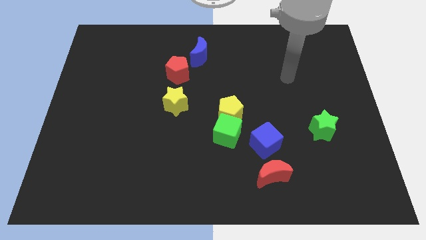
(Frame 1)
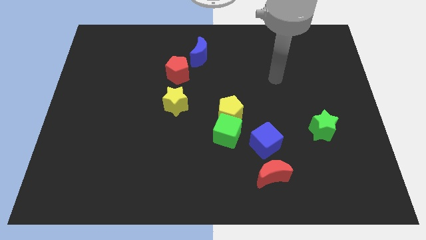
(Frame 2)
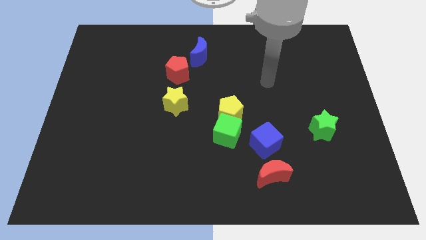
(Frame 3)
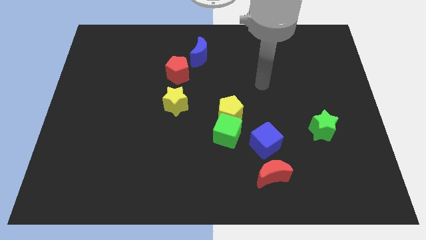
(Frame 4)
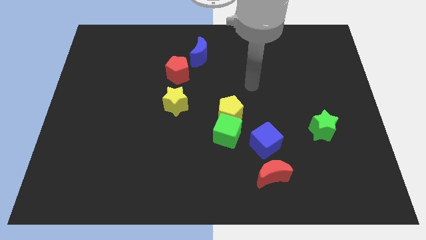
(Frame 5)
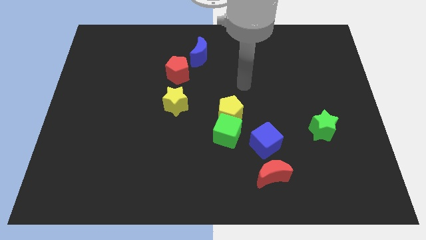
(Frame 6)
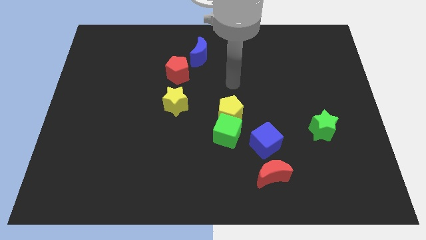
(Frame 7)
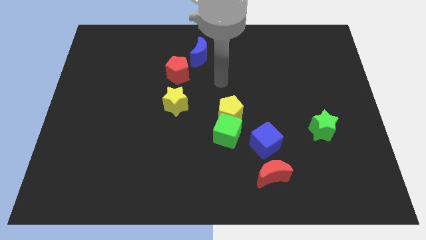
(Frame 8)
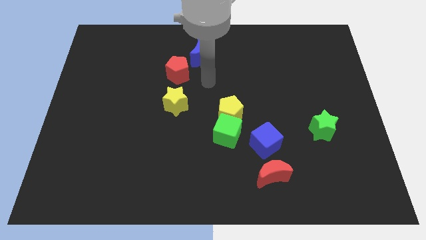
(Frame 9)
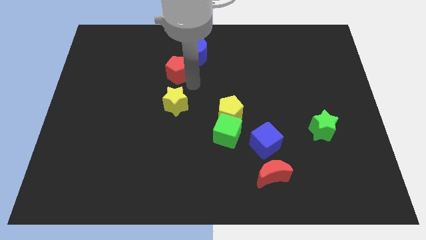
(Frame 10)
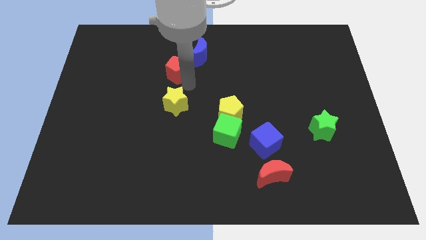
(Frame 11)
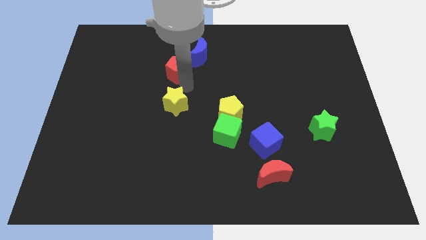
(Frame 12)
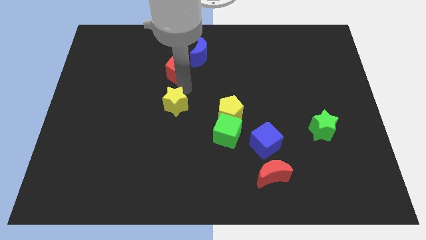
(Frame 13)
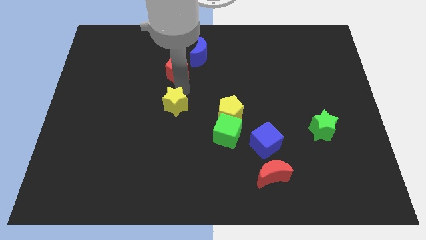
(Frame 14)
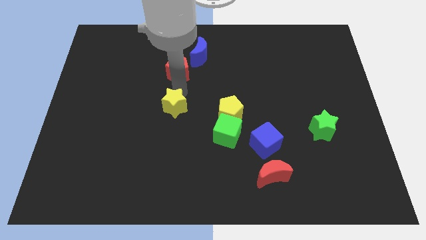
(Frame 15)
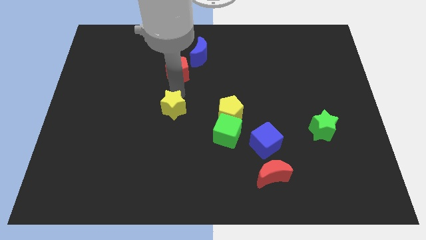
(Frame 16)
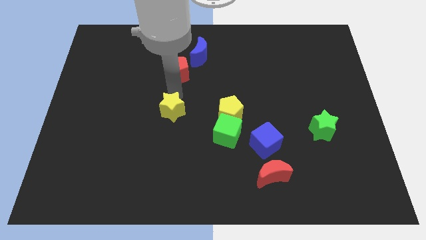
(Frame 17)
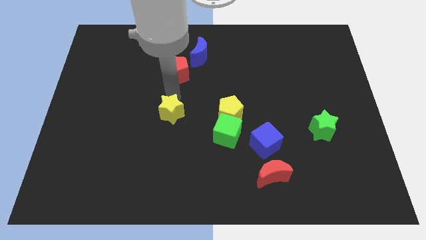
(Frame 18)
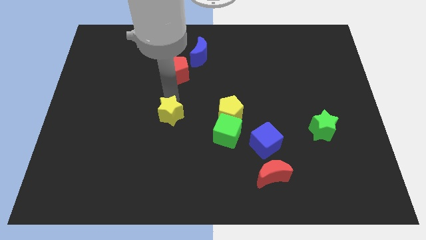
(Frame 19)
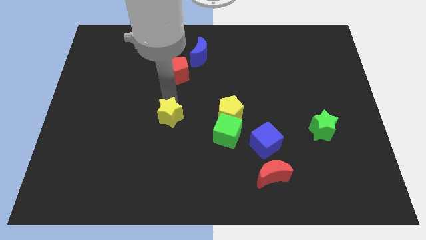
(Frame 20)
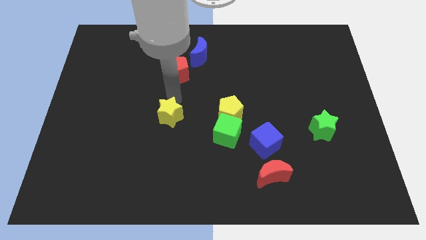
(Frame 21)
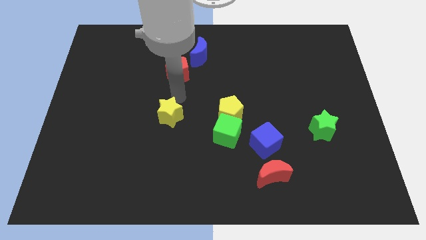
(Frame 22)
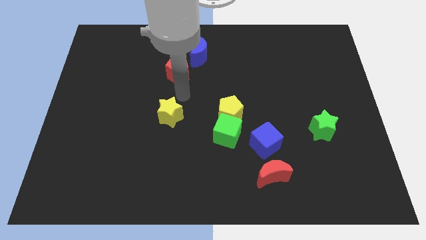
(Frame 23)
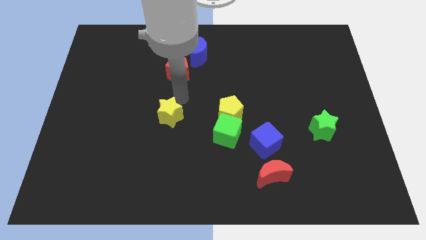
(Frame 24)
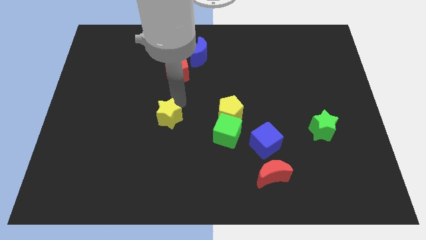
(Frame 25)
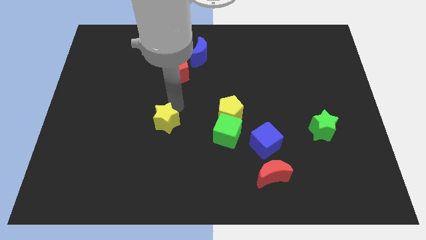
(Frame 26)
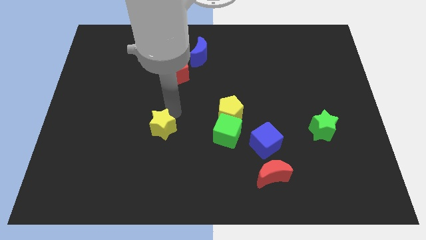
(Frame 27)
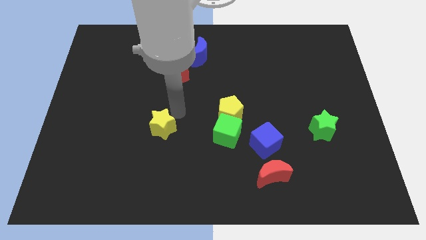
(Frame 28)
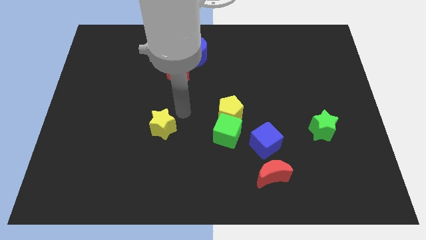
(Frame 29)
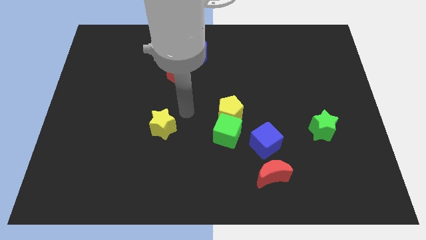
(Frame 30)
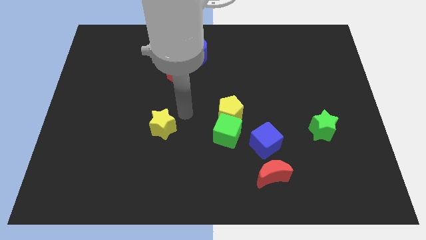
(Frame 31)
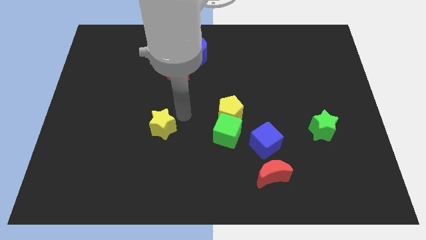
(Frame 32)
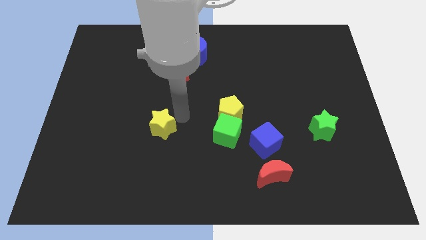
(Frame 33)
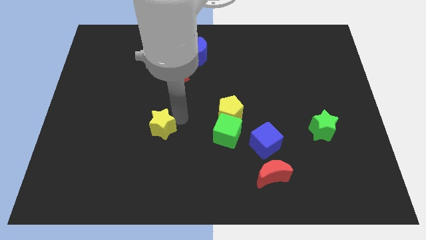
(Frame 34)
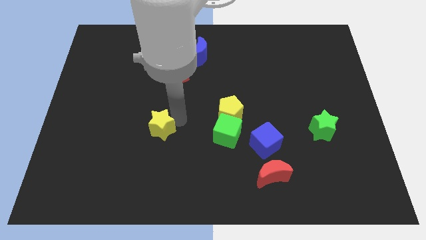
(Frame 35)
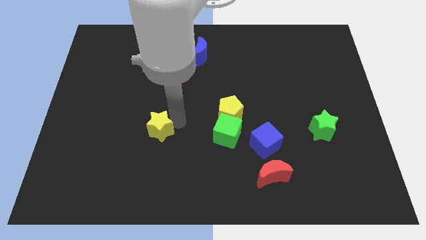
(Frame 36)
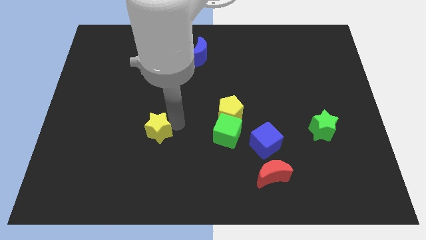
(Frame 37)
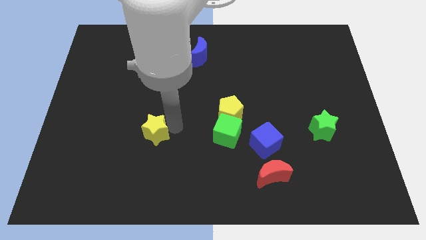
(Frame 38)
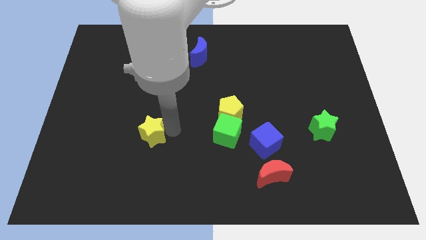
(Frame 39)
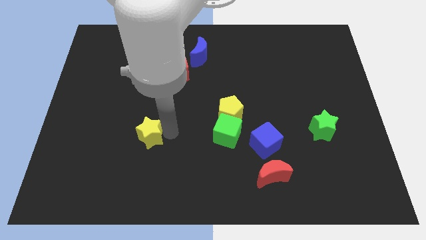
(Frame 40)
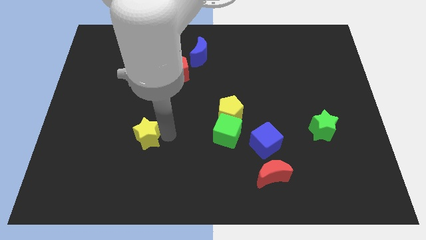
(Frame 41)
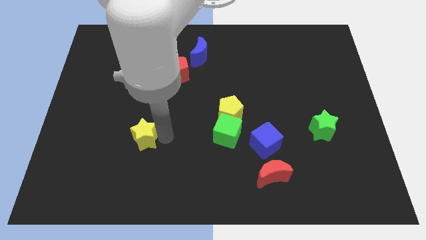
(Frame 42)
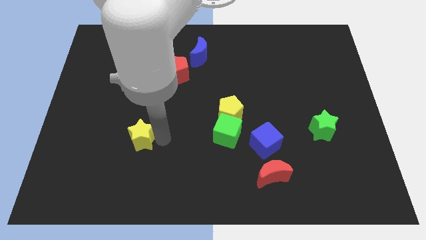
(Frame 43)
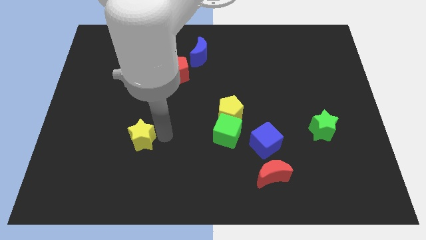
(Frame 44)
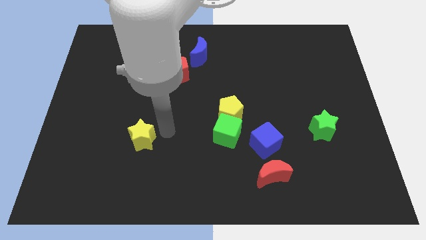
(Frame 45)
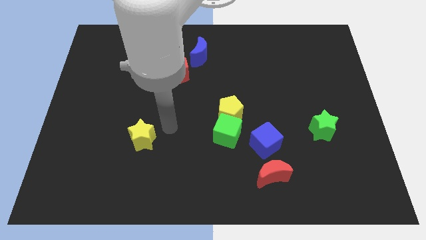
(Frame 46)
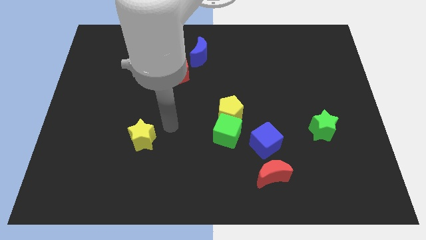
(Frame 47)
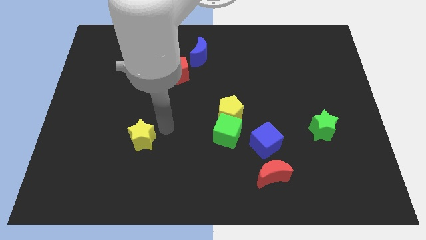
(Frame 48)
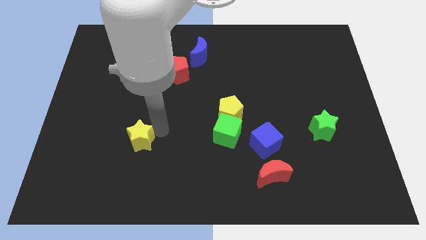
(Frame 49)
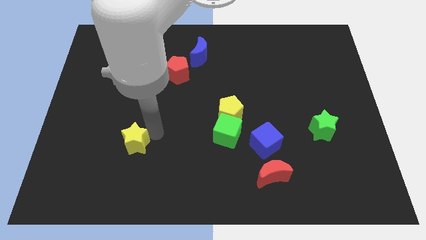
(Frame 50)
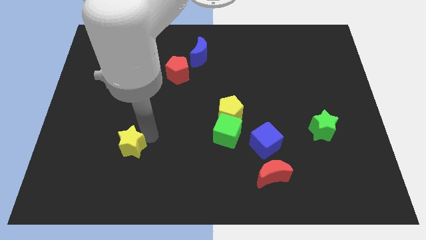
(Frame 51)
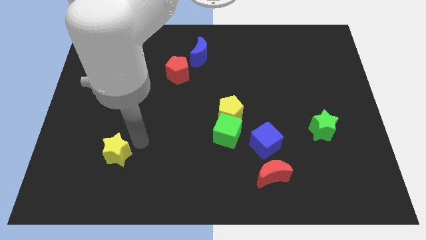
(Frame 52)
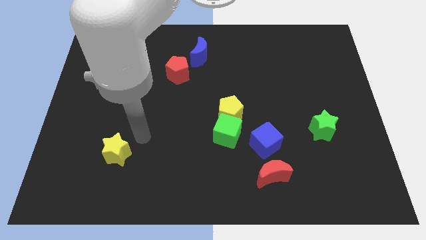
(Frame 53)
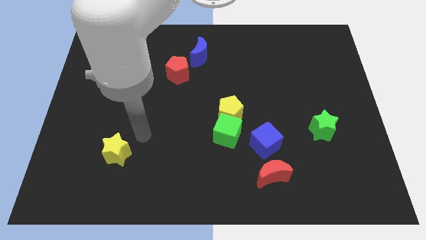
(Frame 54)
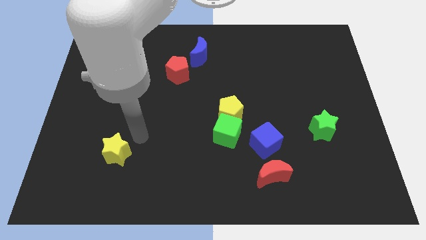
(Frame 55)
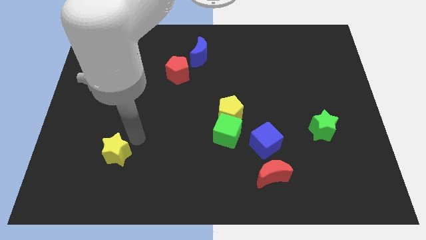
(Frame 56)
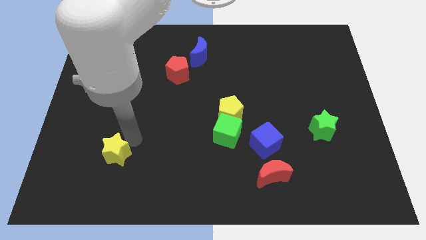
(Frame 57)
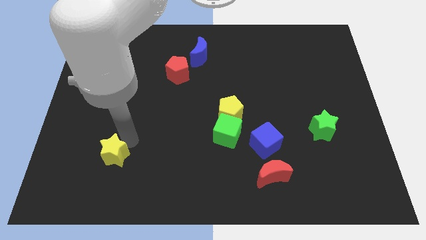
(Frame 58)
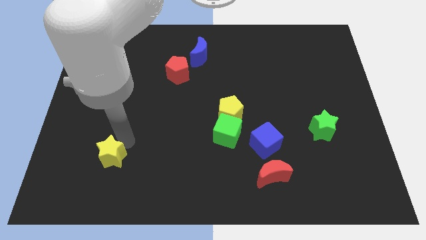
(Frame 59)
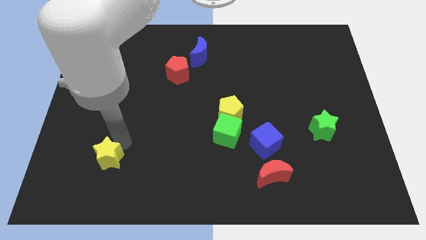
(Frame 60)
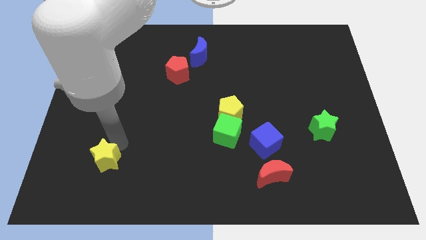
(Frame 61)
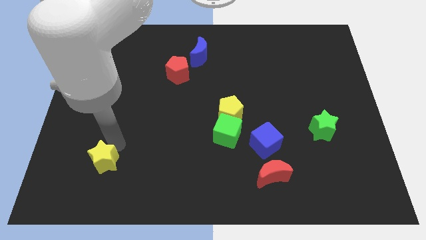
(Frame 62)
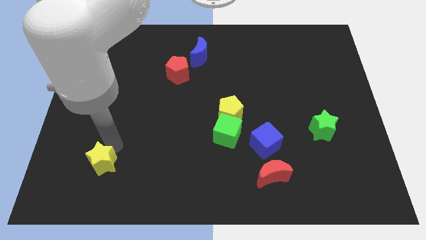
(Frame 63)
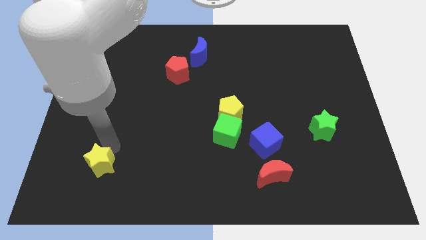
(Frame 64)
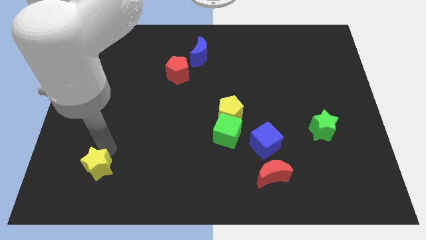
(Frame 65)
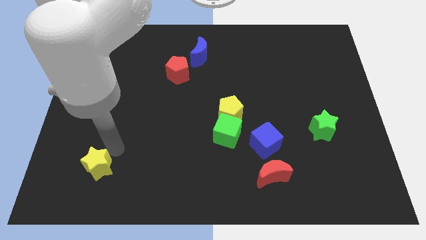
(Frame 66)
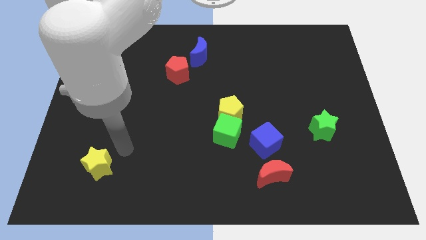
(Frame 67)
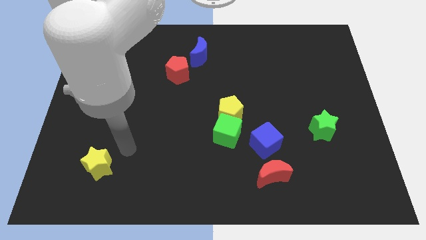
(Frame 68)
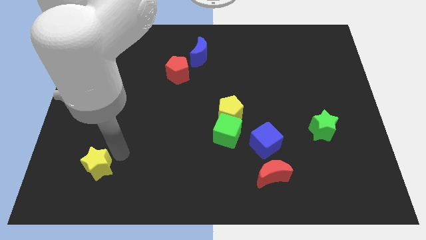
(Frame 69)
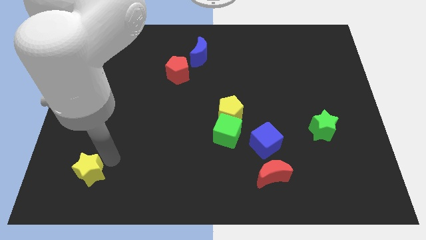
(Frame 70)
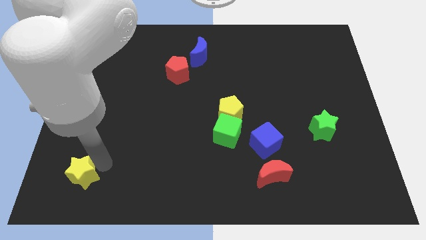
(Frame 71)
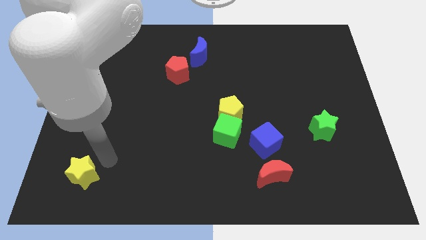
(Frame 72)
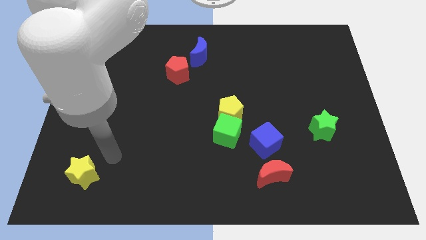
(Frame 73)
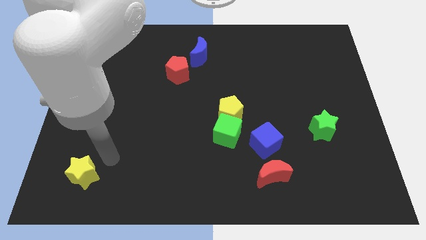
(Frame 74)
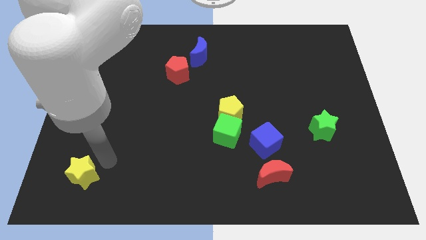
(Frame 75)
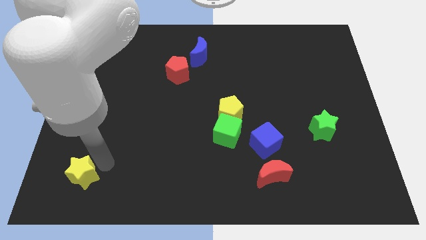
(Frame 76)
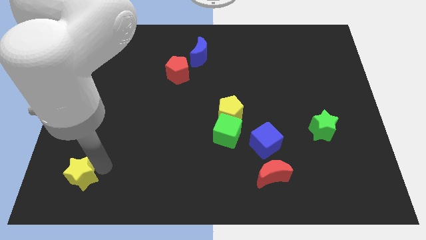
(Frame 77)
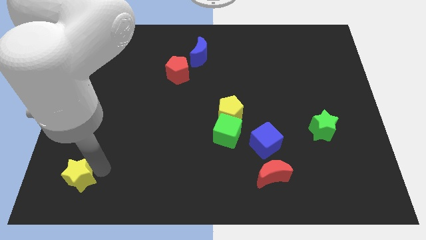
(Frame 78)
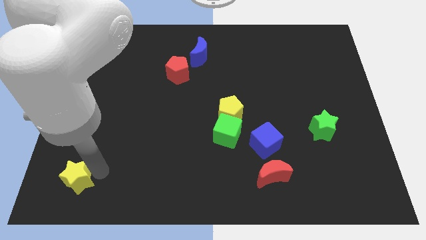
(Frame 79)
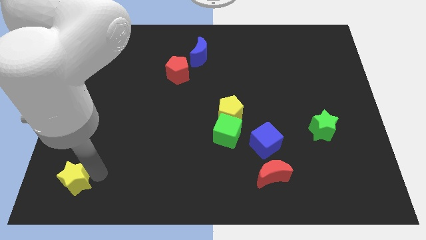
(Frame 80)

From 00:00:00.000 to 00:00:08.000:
move the yellow star to the lower left corner
